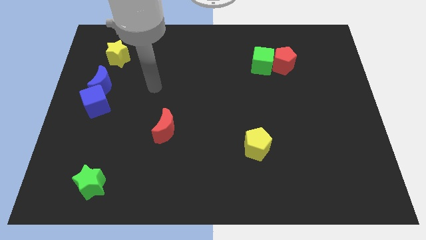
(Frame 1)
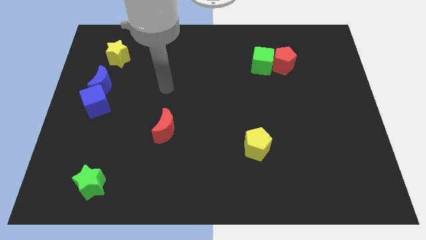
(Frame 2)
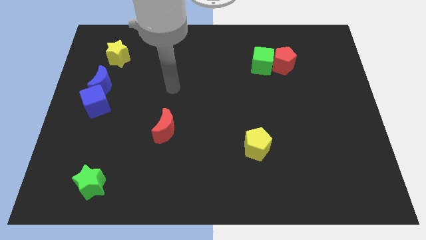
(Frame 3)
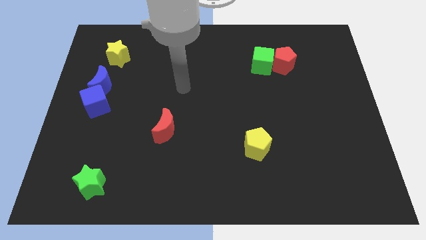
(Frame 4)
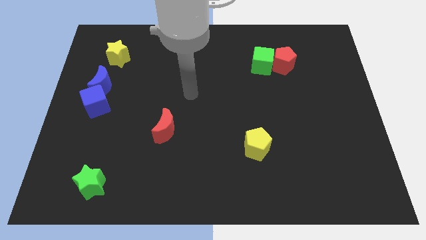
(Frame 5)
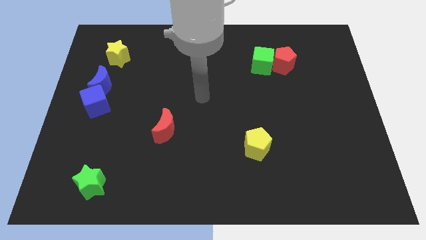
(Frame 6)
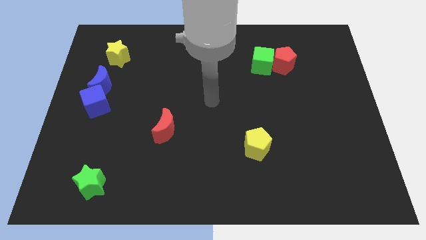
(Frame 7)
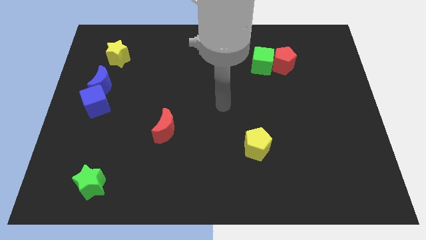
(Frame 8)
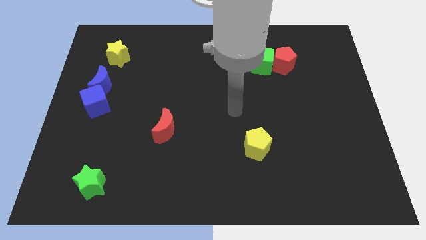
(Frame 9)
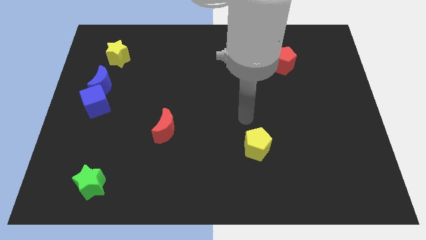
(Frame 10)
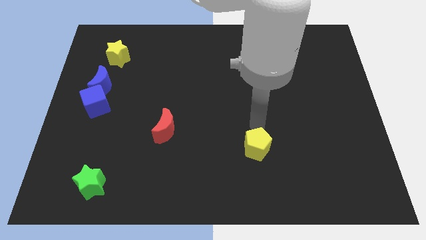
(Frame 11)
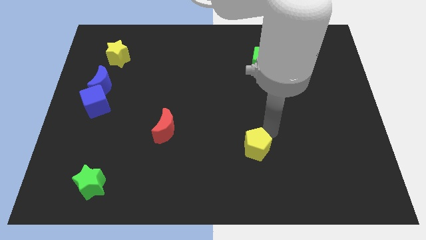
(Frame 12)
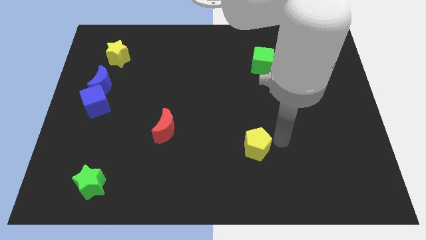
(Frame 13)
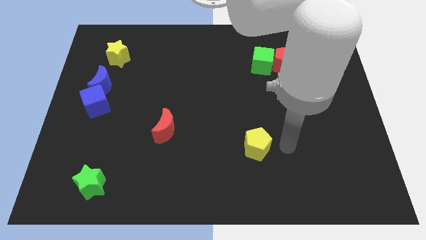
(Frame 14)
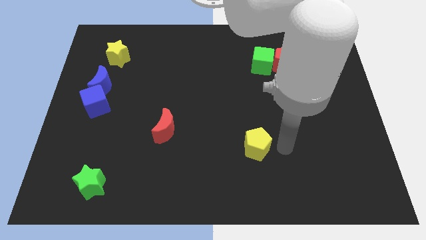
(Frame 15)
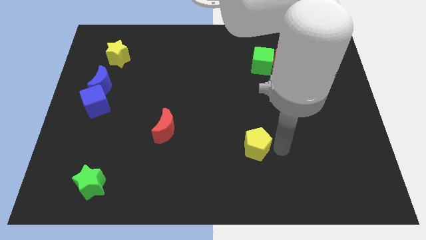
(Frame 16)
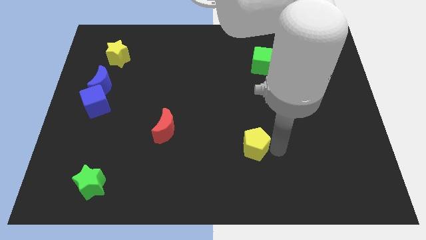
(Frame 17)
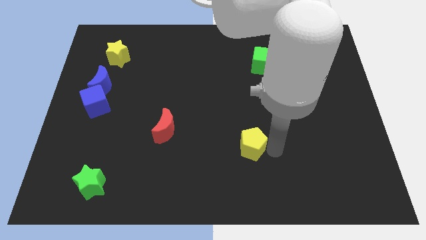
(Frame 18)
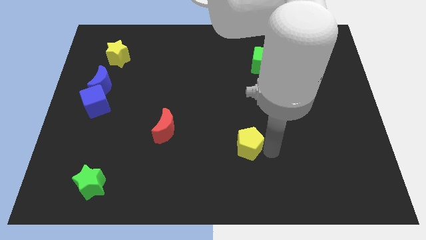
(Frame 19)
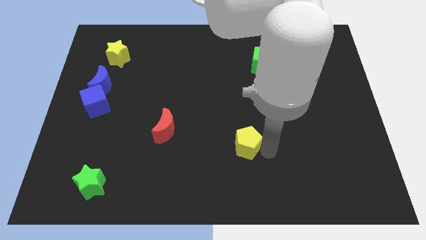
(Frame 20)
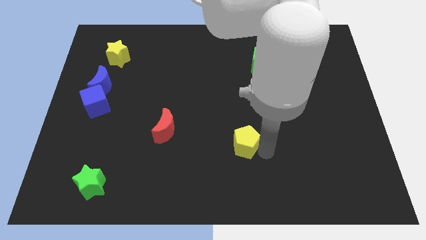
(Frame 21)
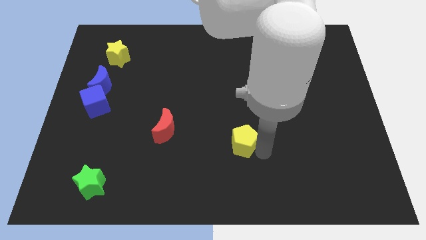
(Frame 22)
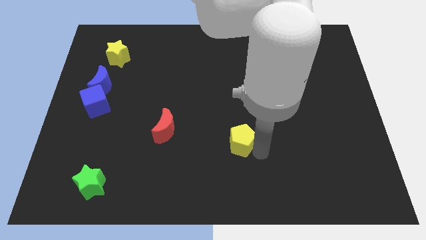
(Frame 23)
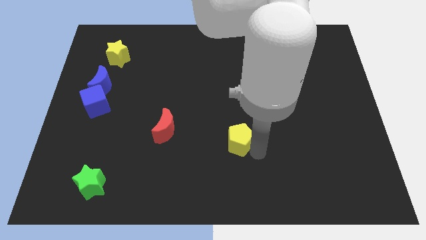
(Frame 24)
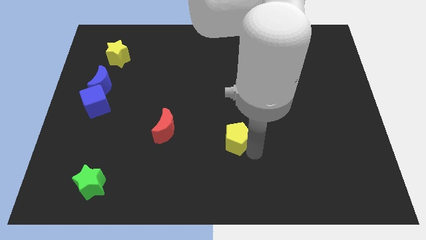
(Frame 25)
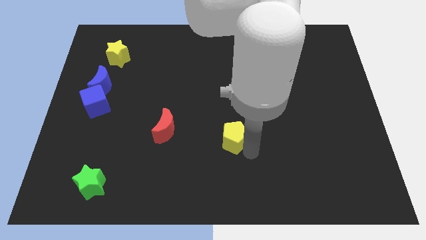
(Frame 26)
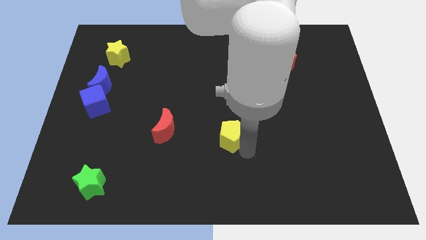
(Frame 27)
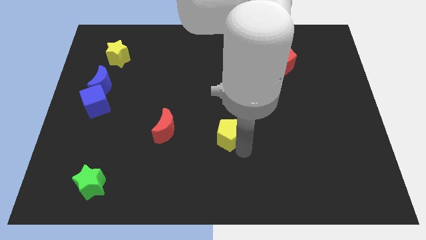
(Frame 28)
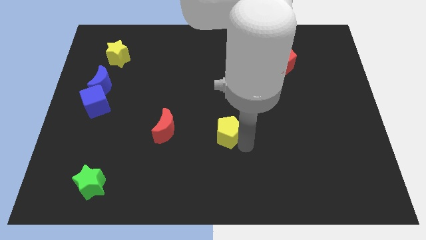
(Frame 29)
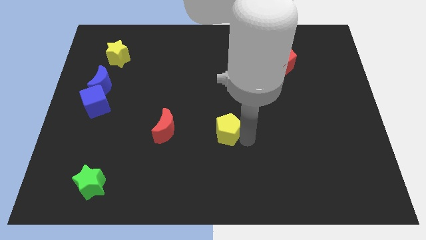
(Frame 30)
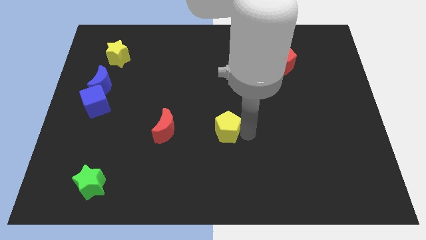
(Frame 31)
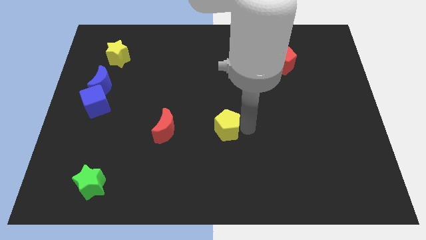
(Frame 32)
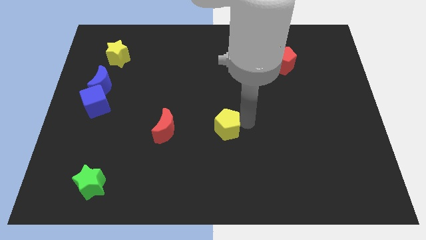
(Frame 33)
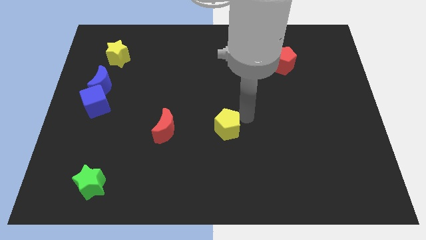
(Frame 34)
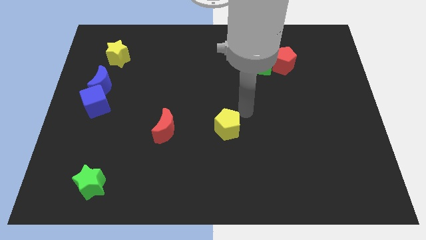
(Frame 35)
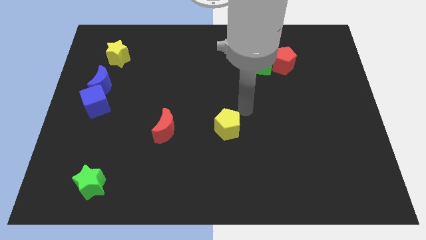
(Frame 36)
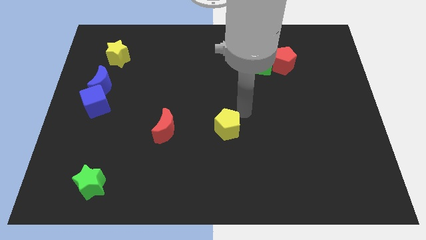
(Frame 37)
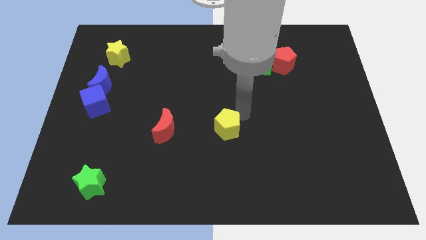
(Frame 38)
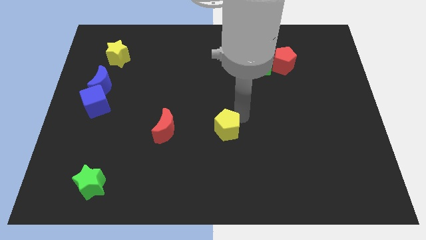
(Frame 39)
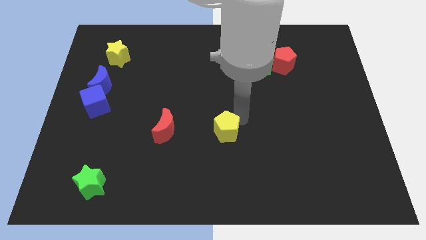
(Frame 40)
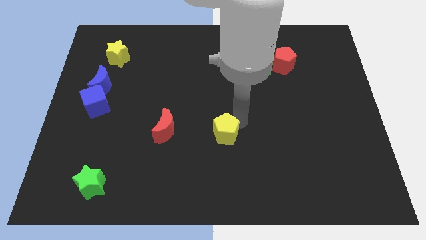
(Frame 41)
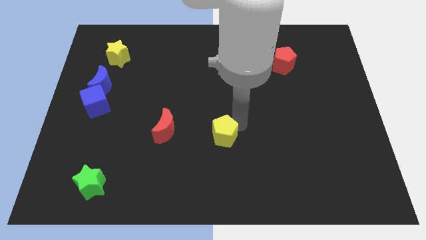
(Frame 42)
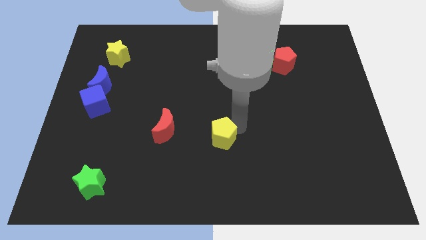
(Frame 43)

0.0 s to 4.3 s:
move the yellow pentagon to the left a little

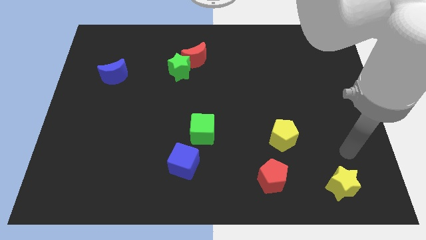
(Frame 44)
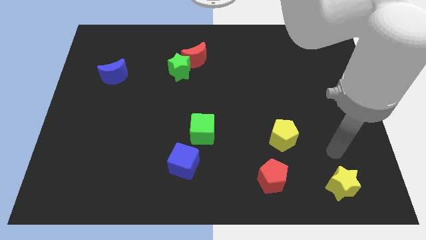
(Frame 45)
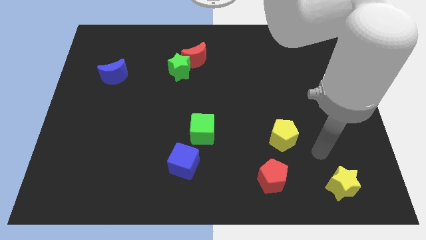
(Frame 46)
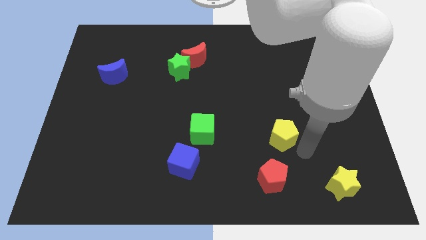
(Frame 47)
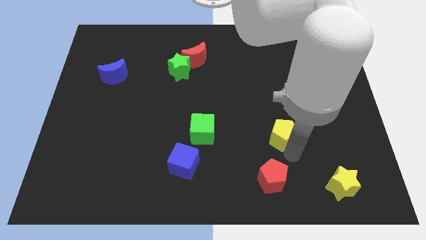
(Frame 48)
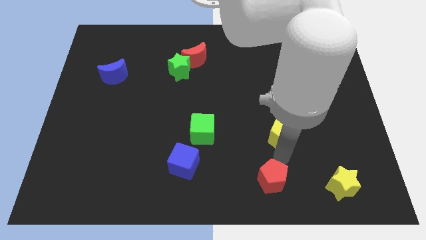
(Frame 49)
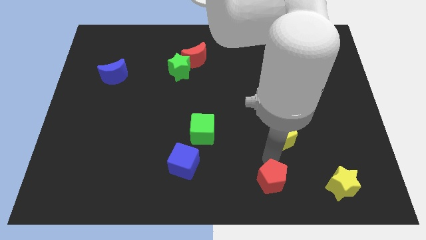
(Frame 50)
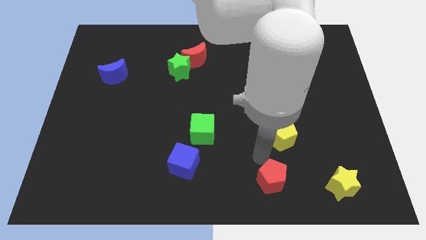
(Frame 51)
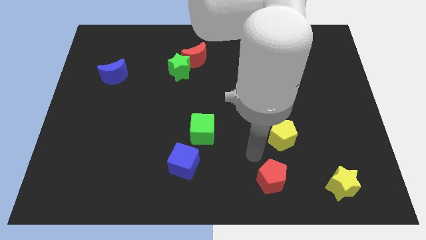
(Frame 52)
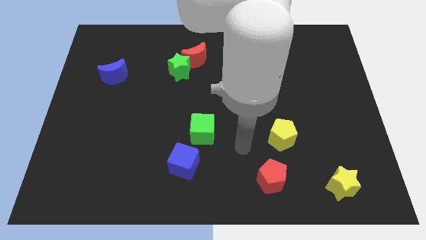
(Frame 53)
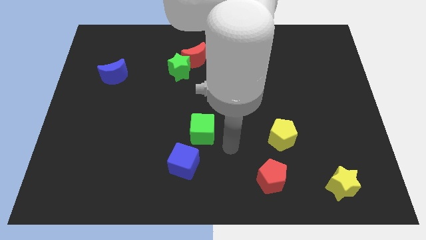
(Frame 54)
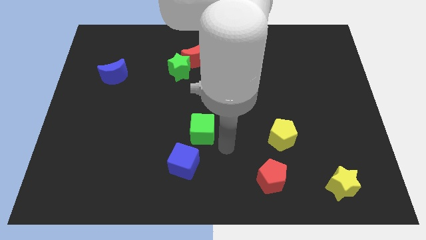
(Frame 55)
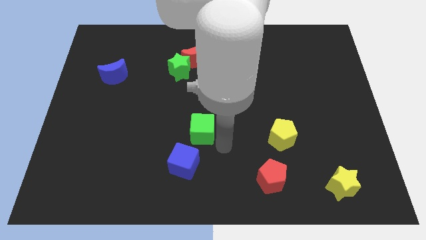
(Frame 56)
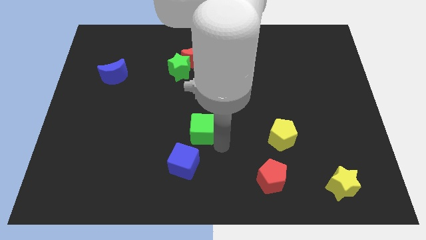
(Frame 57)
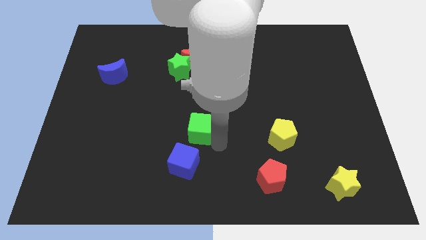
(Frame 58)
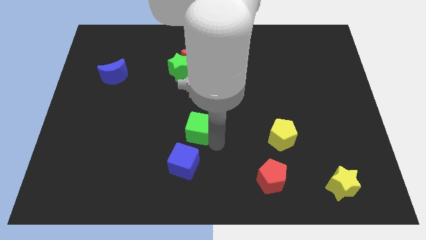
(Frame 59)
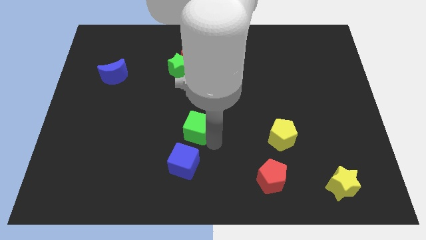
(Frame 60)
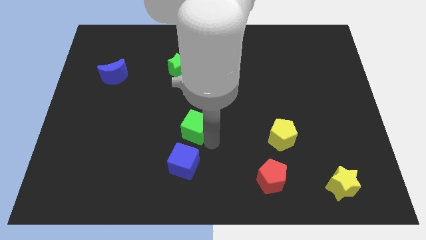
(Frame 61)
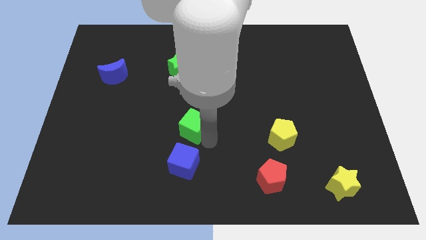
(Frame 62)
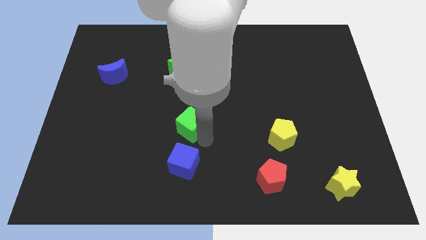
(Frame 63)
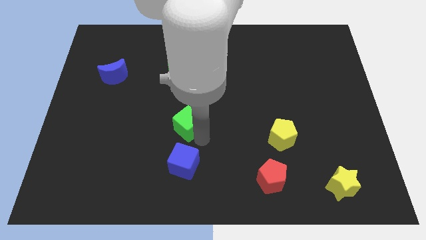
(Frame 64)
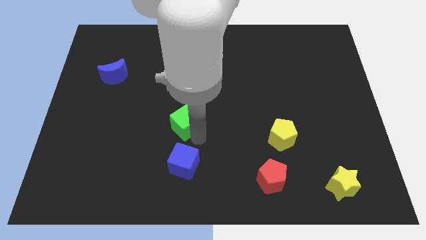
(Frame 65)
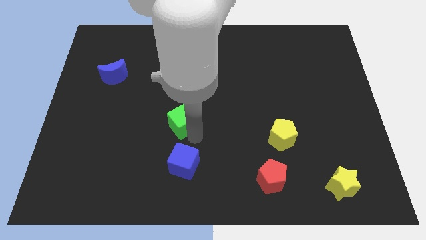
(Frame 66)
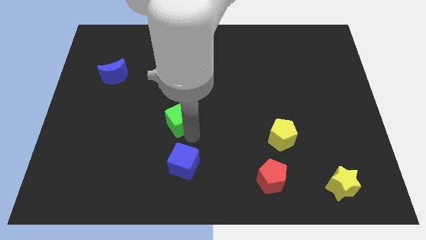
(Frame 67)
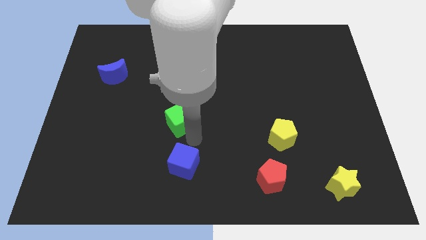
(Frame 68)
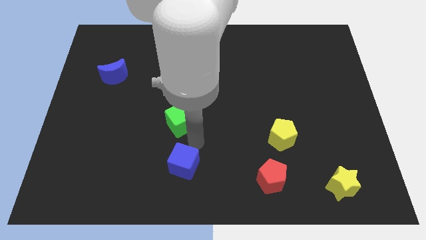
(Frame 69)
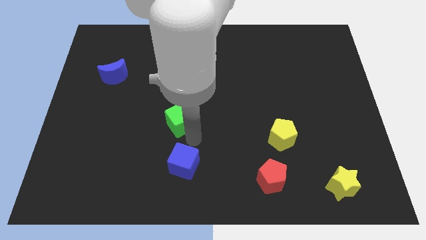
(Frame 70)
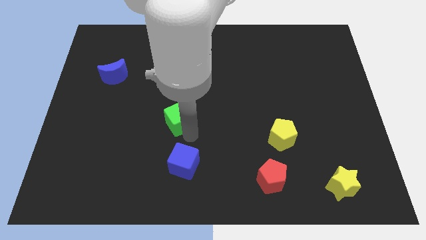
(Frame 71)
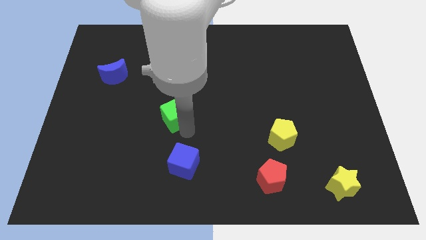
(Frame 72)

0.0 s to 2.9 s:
push the green cube diagonally up and to the left a bit

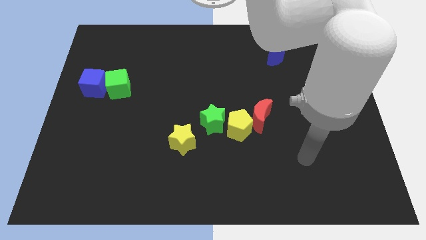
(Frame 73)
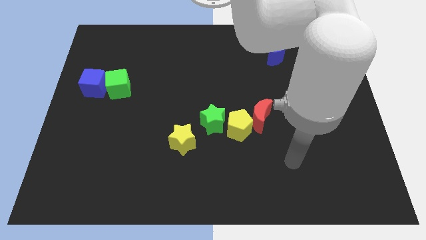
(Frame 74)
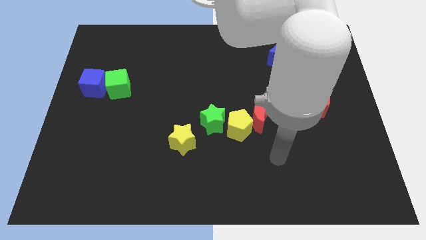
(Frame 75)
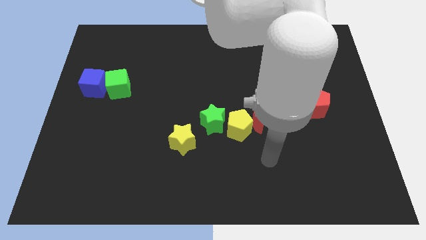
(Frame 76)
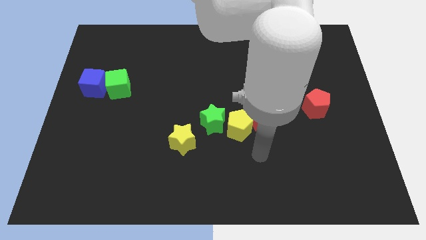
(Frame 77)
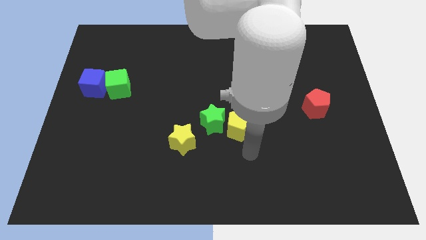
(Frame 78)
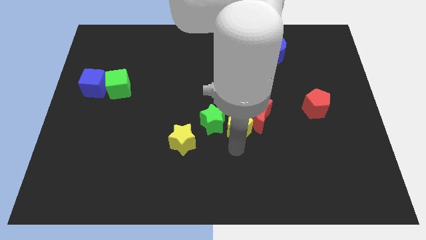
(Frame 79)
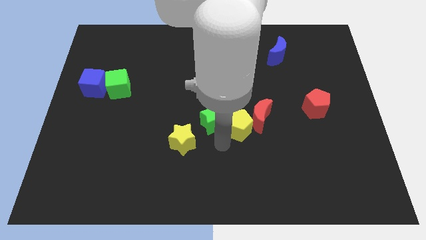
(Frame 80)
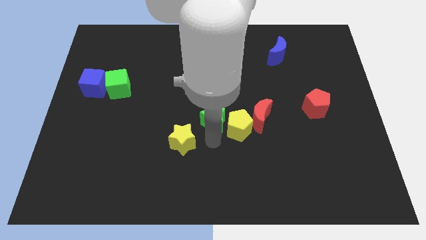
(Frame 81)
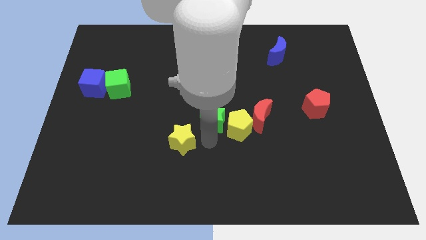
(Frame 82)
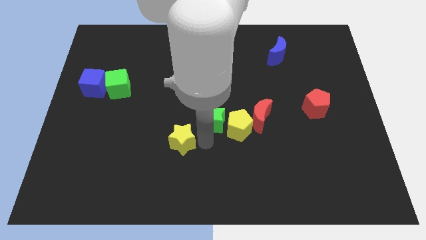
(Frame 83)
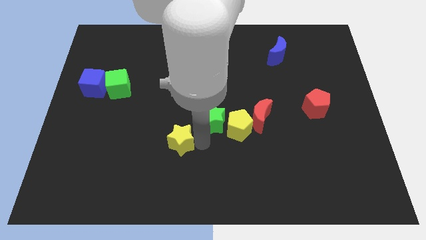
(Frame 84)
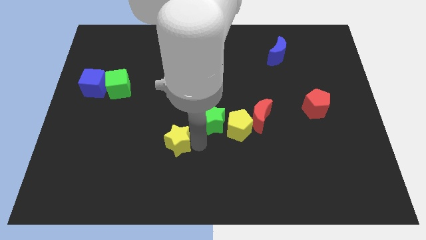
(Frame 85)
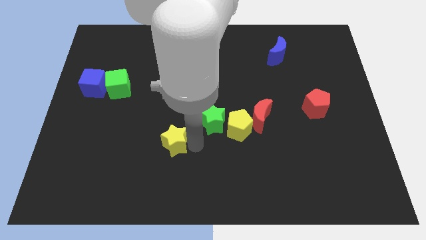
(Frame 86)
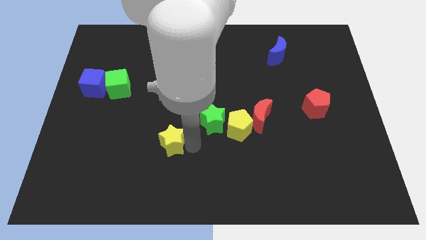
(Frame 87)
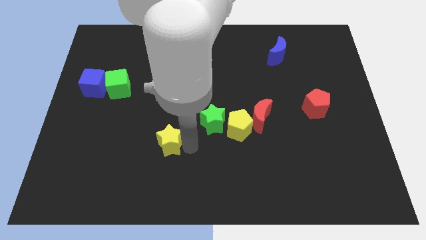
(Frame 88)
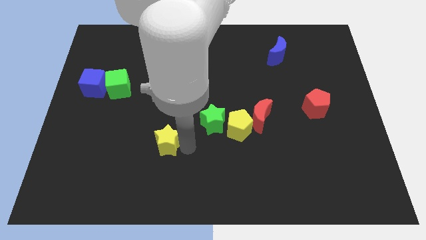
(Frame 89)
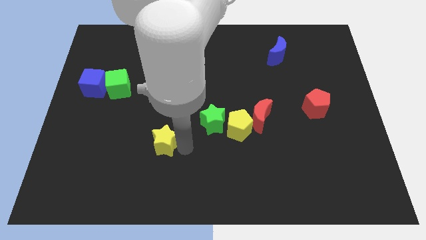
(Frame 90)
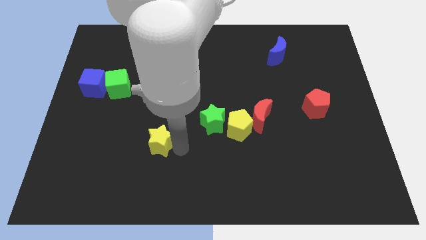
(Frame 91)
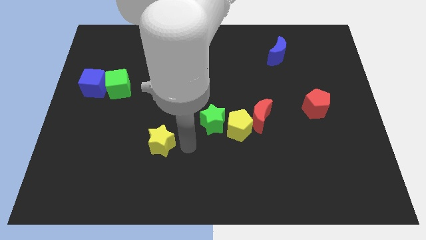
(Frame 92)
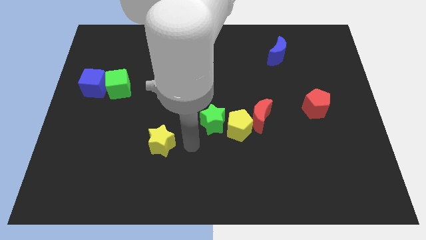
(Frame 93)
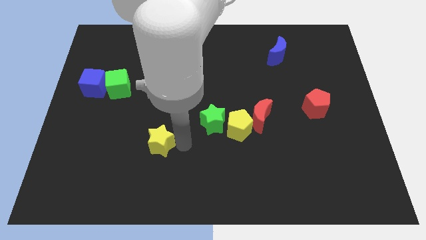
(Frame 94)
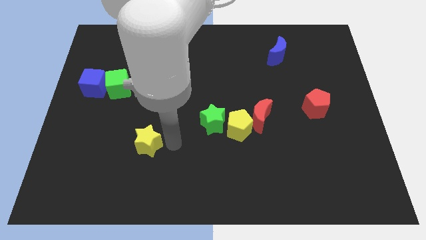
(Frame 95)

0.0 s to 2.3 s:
push the yellow star a little left
